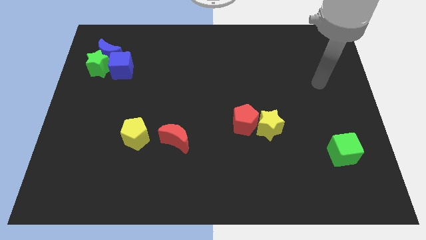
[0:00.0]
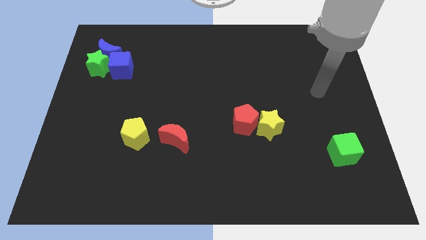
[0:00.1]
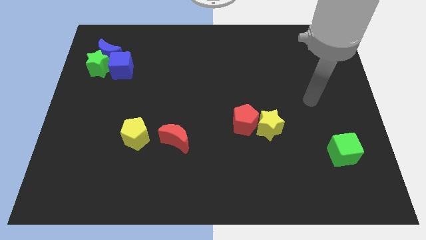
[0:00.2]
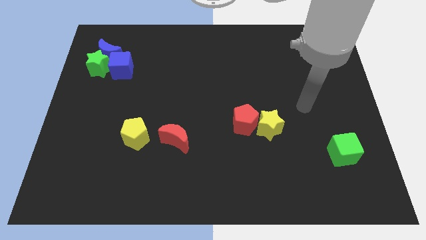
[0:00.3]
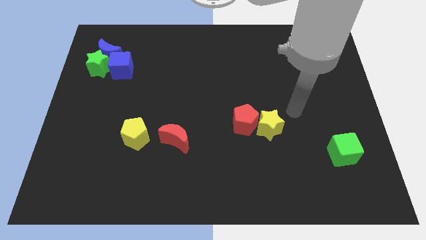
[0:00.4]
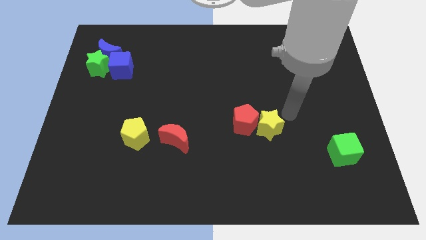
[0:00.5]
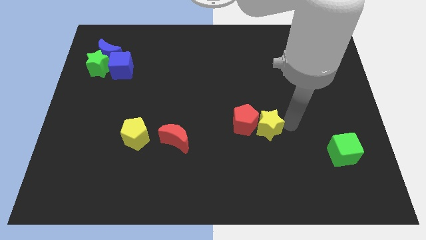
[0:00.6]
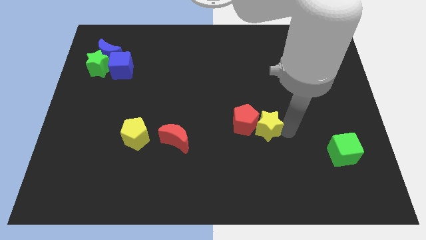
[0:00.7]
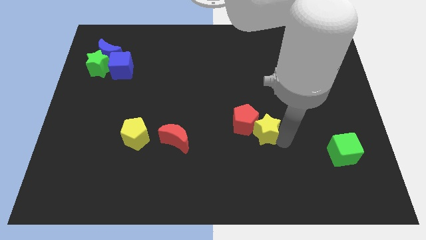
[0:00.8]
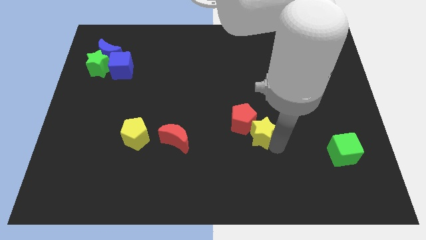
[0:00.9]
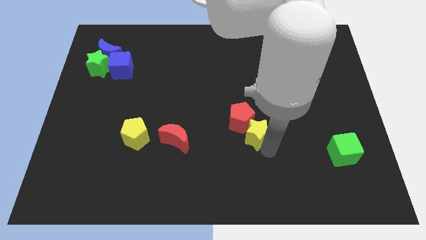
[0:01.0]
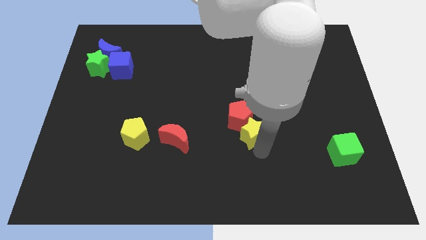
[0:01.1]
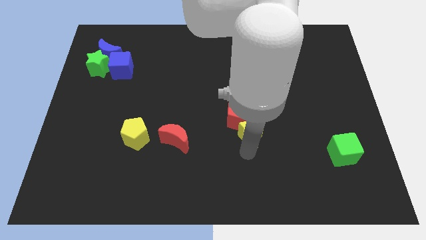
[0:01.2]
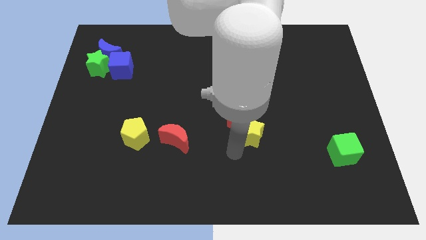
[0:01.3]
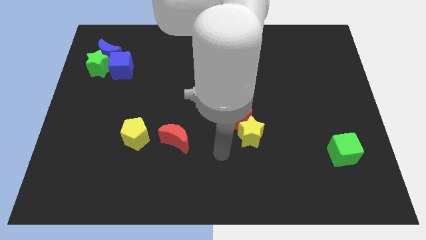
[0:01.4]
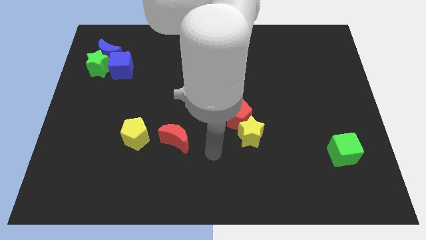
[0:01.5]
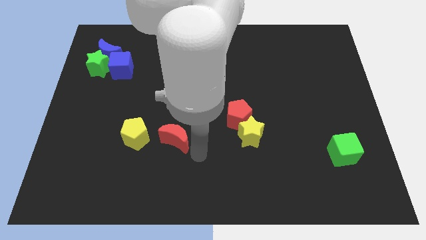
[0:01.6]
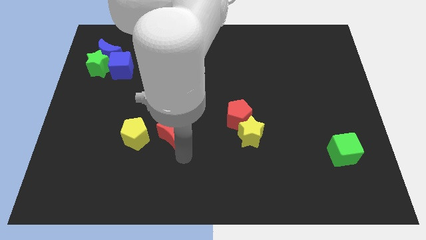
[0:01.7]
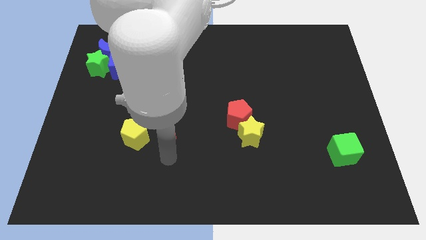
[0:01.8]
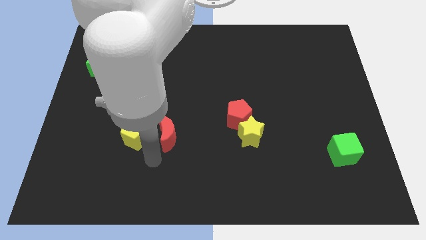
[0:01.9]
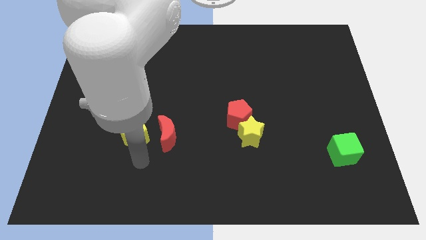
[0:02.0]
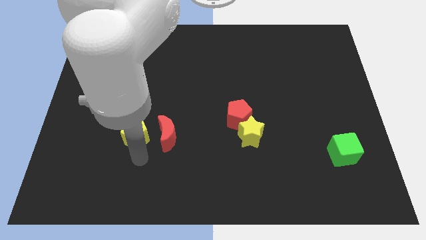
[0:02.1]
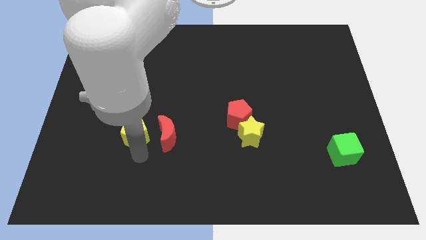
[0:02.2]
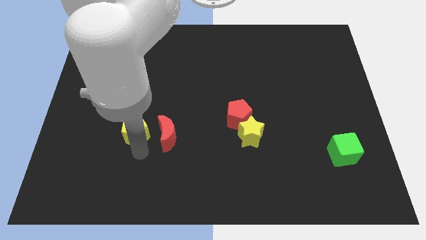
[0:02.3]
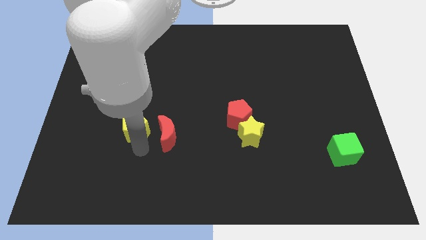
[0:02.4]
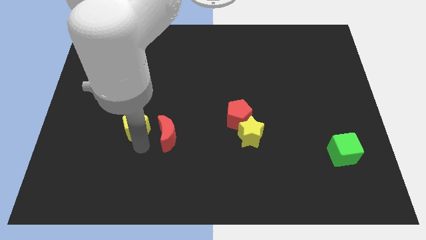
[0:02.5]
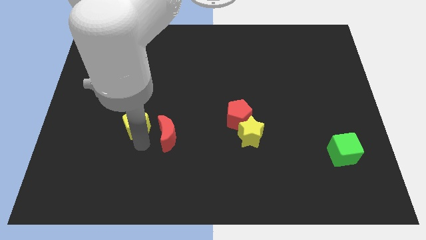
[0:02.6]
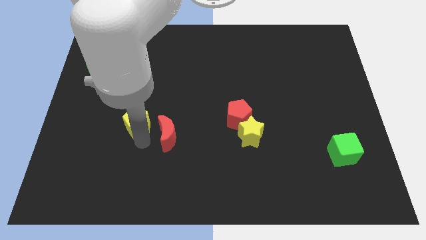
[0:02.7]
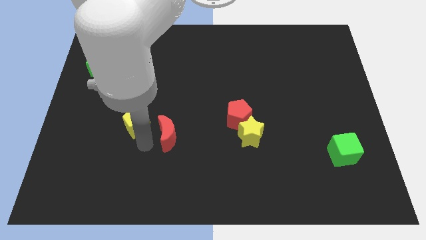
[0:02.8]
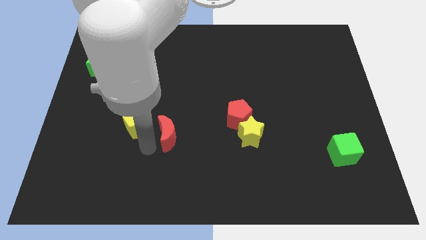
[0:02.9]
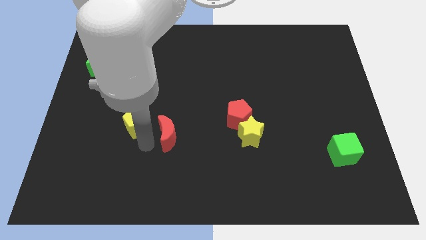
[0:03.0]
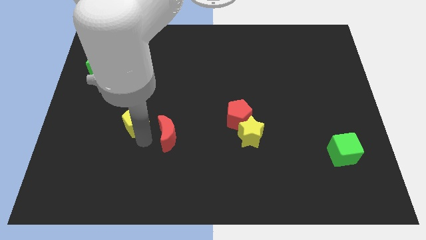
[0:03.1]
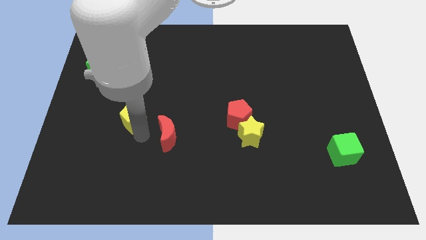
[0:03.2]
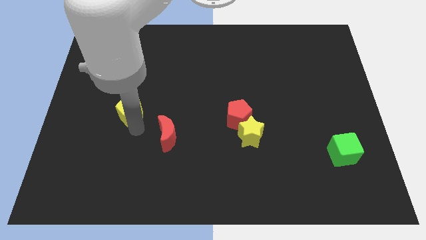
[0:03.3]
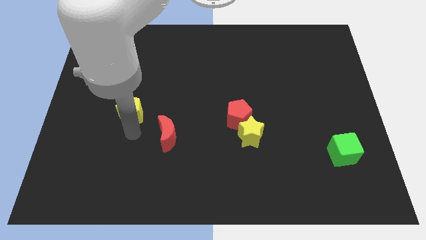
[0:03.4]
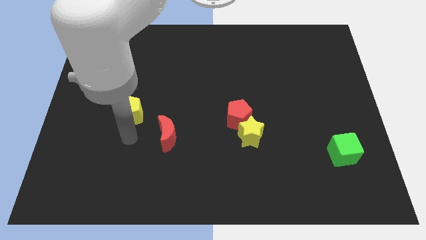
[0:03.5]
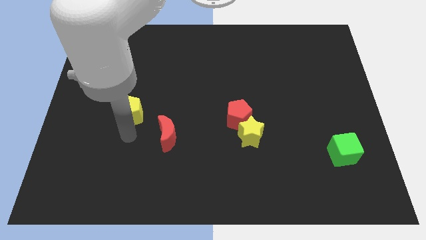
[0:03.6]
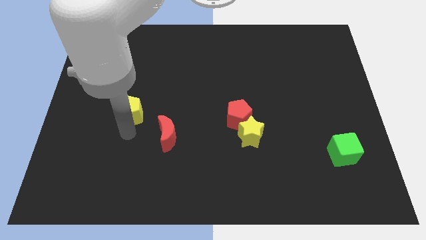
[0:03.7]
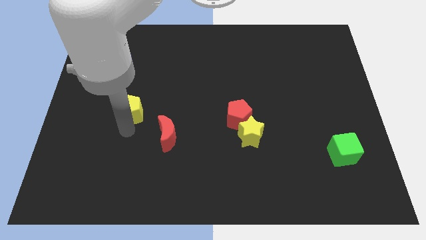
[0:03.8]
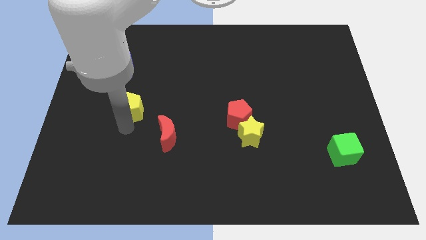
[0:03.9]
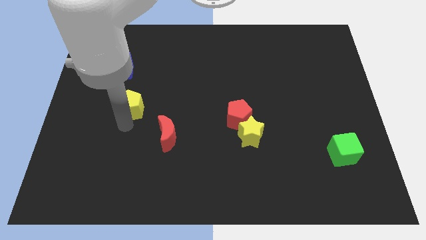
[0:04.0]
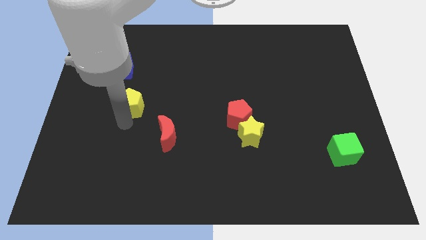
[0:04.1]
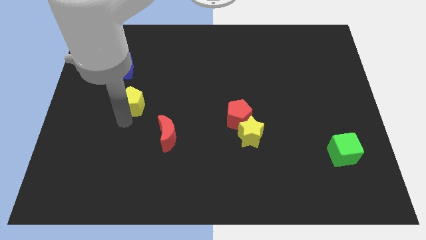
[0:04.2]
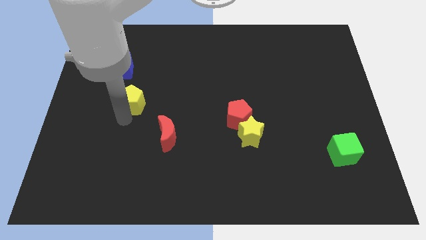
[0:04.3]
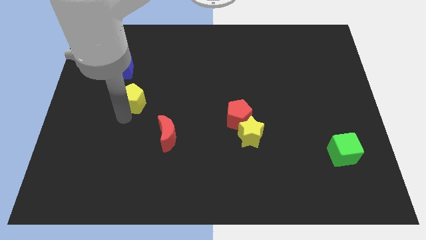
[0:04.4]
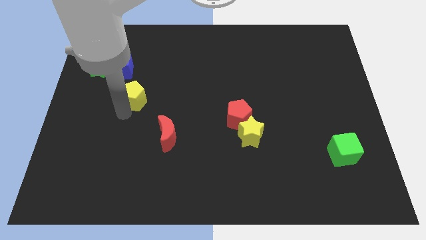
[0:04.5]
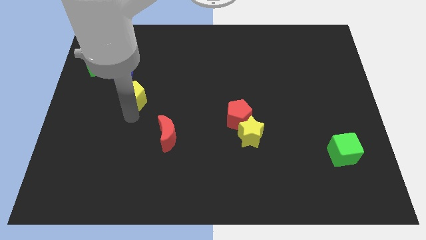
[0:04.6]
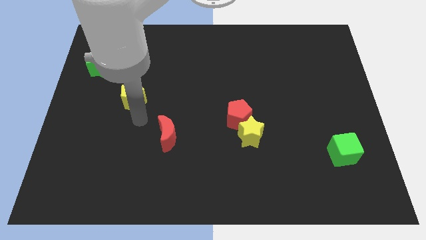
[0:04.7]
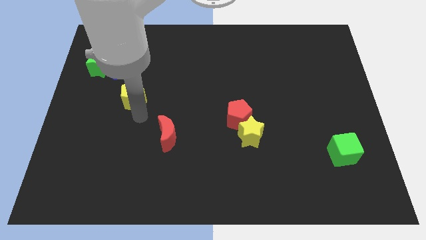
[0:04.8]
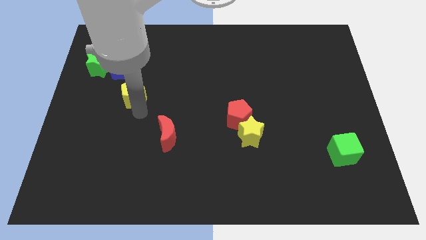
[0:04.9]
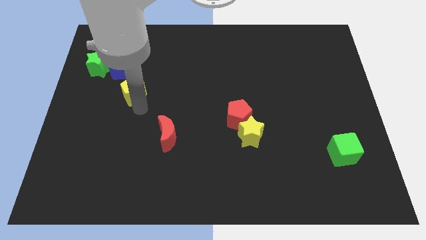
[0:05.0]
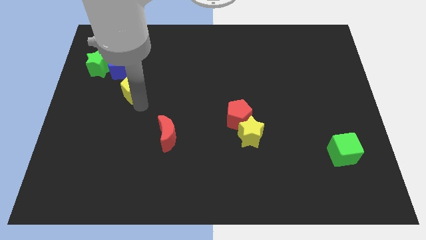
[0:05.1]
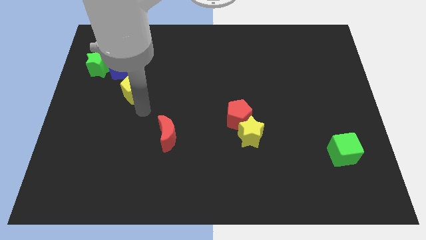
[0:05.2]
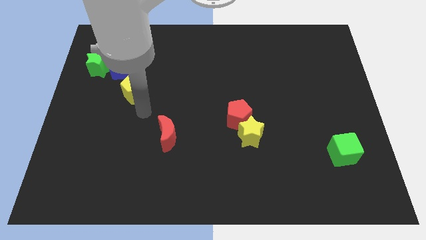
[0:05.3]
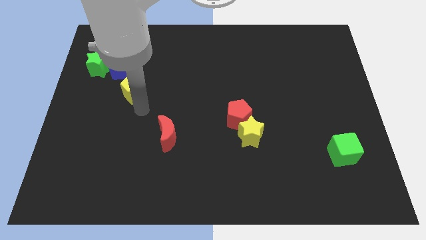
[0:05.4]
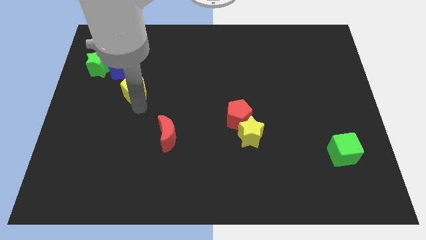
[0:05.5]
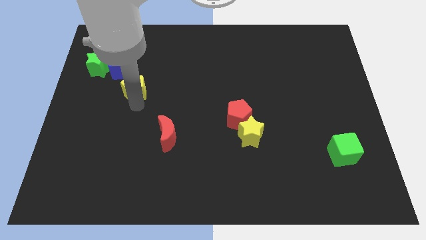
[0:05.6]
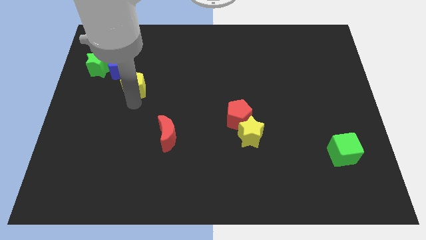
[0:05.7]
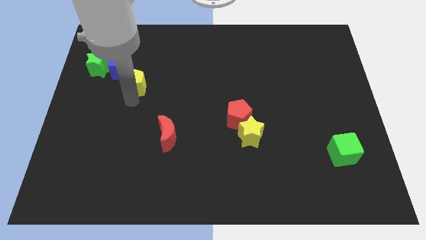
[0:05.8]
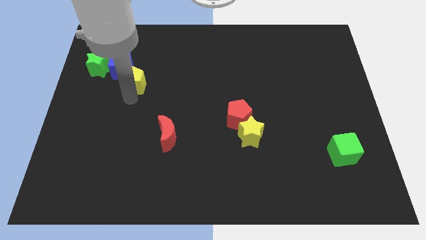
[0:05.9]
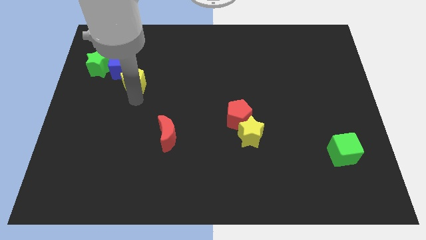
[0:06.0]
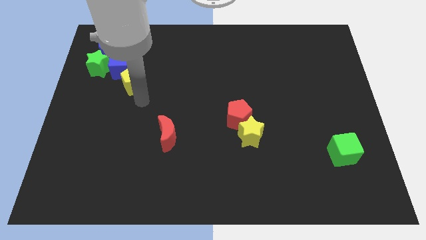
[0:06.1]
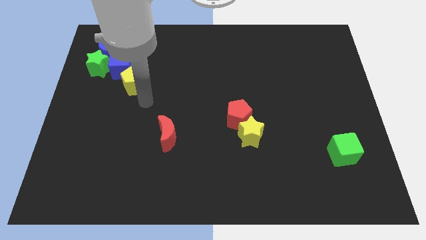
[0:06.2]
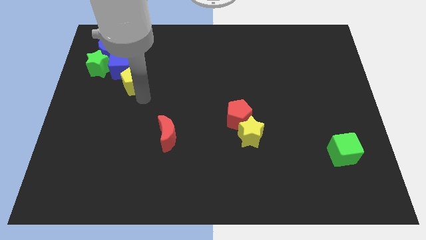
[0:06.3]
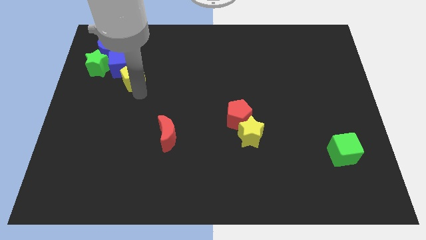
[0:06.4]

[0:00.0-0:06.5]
put the yellow pentagon next to the blue cube

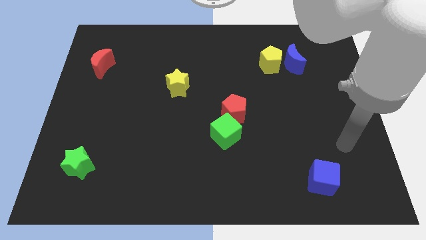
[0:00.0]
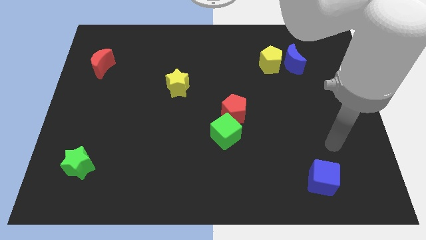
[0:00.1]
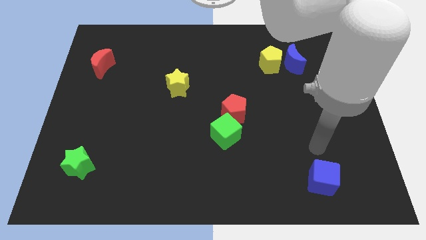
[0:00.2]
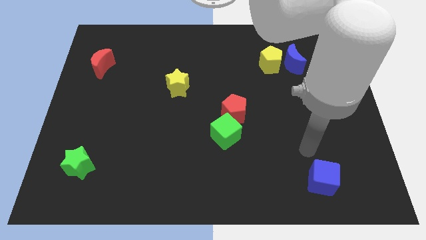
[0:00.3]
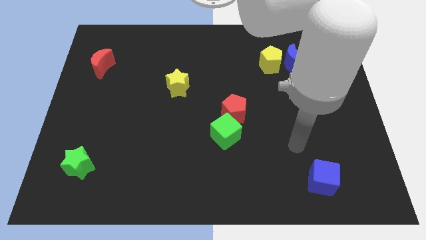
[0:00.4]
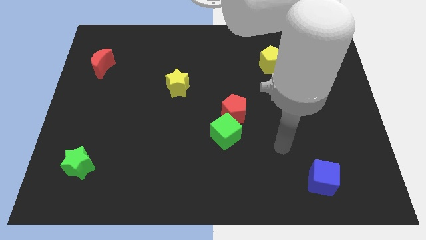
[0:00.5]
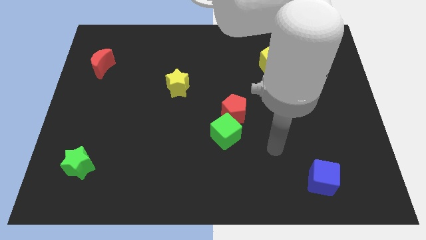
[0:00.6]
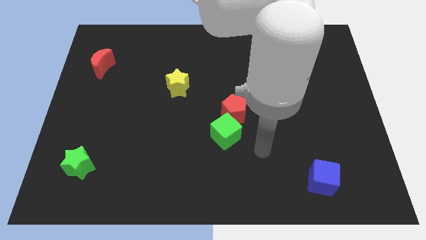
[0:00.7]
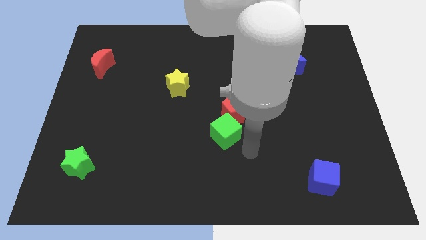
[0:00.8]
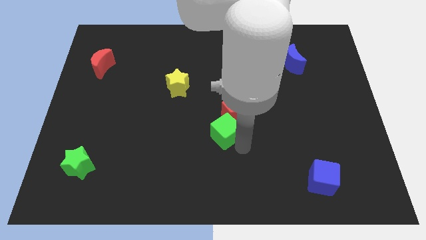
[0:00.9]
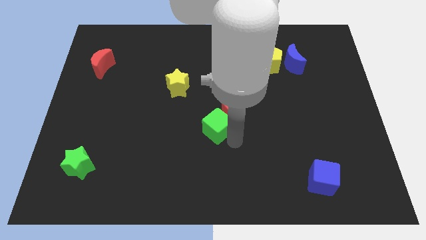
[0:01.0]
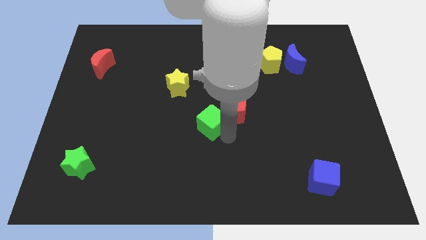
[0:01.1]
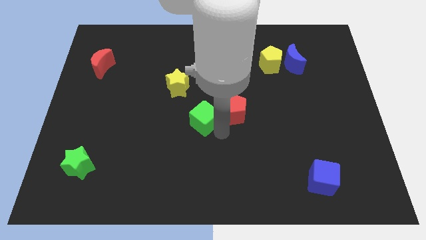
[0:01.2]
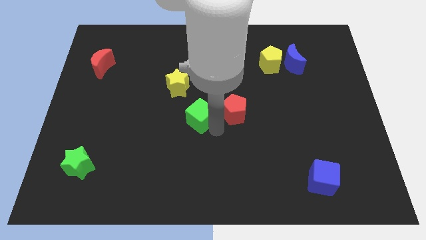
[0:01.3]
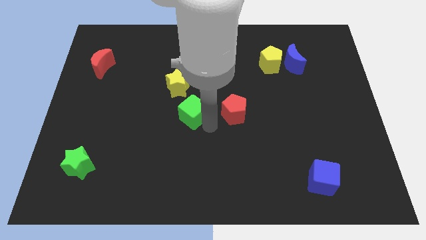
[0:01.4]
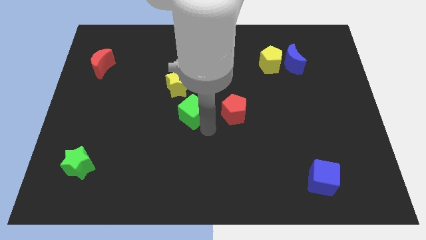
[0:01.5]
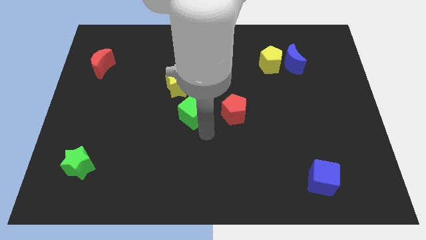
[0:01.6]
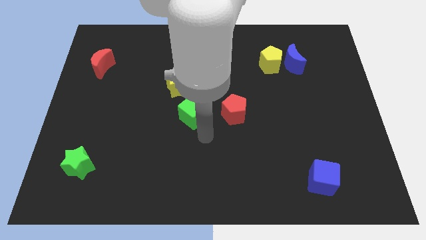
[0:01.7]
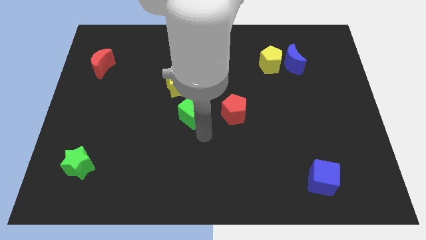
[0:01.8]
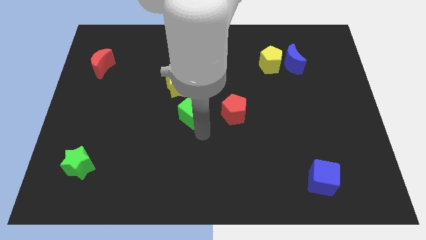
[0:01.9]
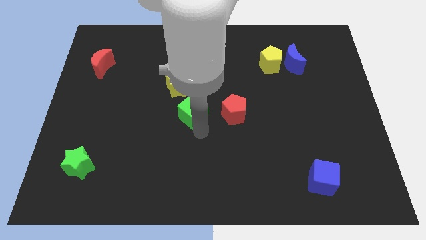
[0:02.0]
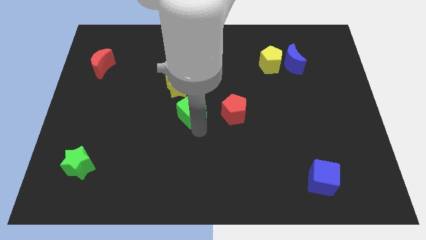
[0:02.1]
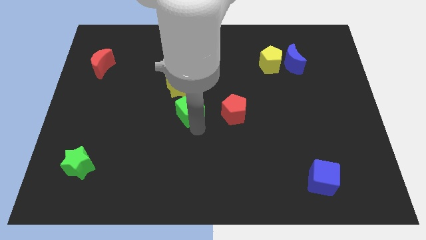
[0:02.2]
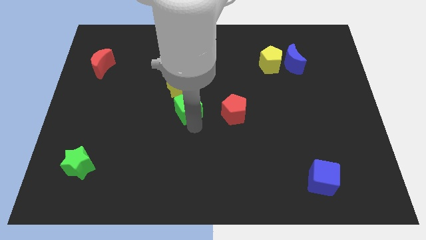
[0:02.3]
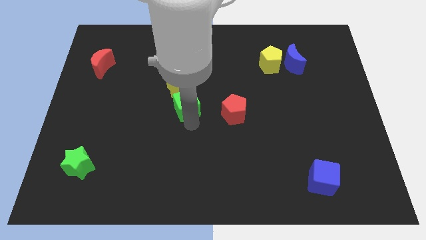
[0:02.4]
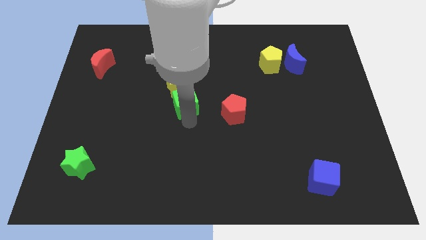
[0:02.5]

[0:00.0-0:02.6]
slide the green cube to the yellow star
